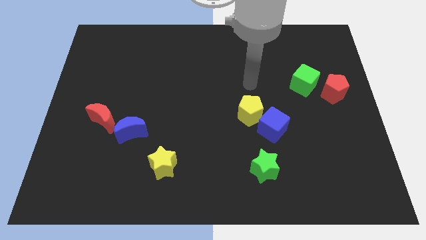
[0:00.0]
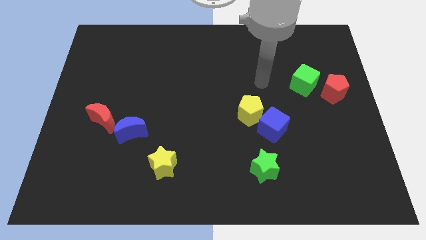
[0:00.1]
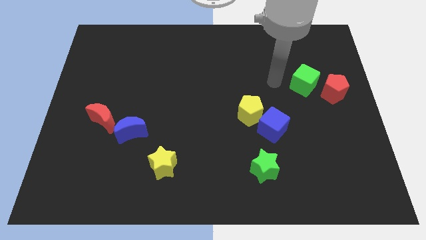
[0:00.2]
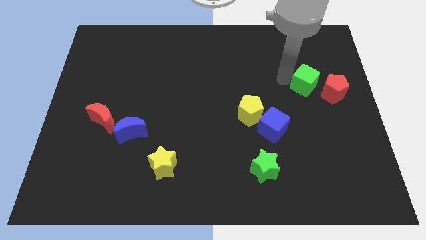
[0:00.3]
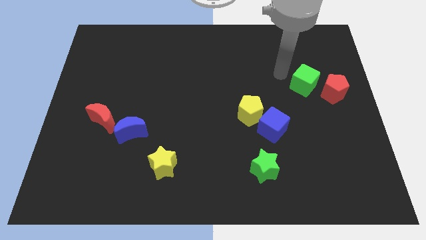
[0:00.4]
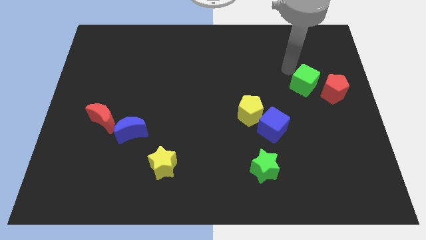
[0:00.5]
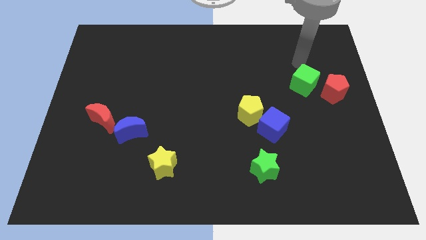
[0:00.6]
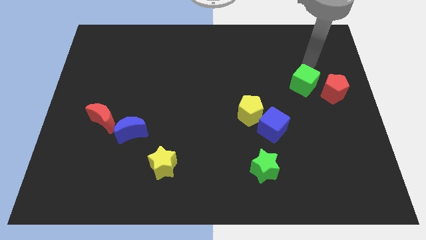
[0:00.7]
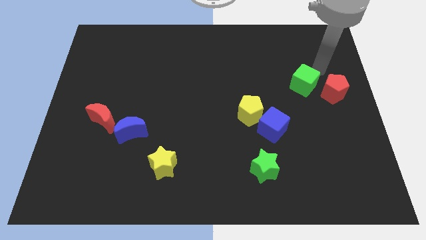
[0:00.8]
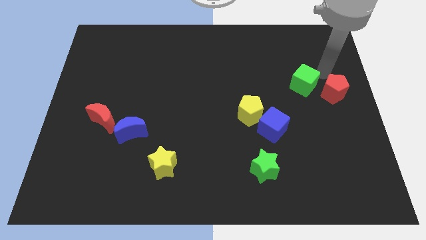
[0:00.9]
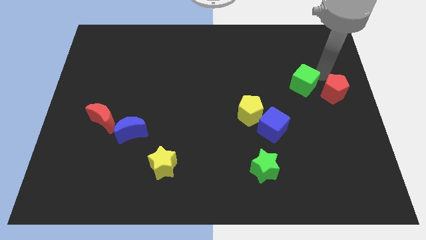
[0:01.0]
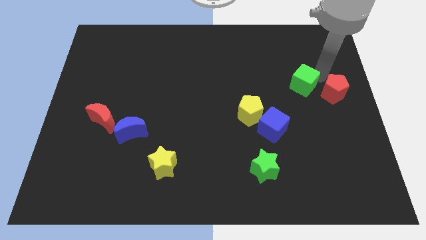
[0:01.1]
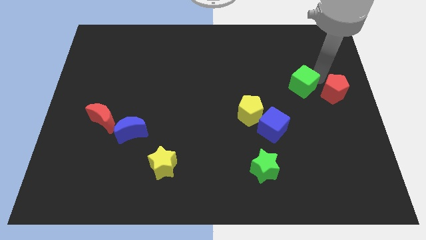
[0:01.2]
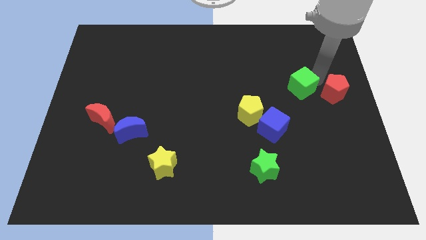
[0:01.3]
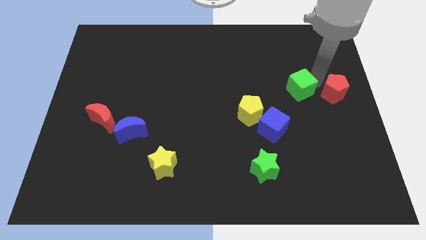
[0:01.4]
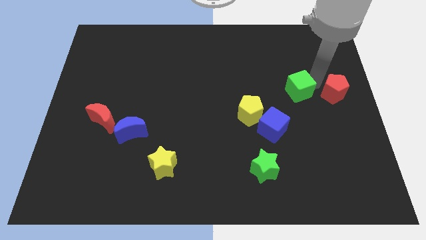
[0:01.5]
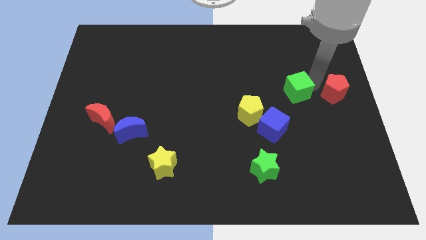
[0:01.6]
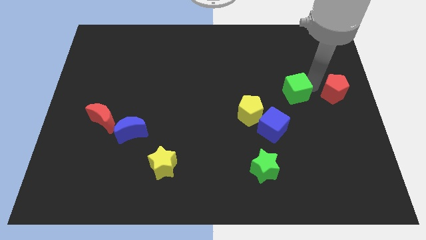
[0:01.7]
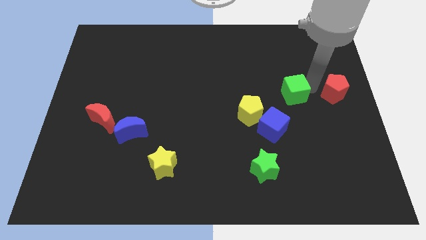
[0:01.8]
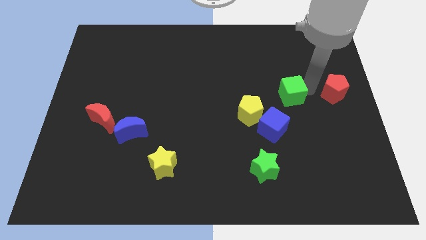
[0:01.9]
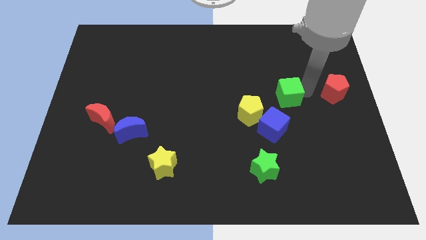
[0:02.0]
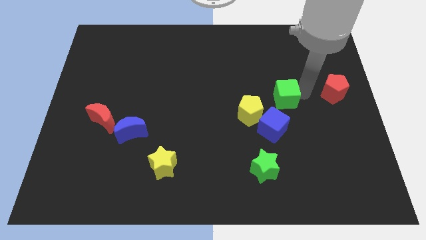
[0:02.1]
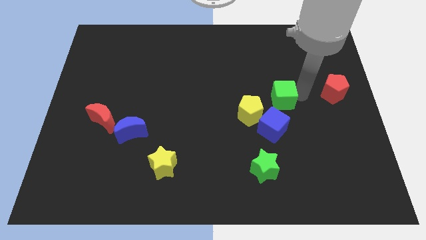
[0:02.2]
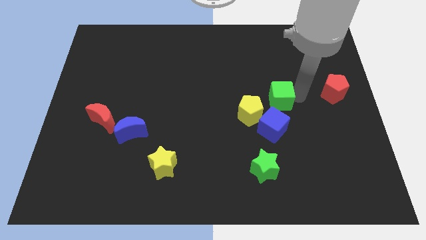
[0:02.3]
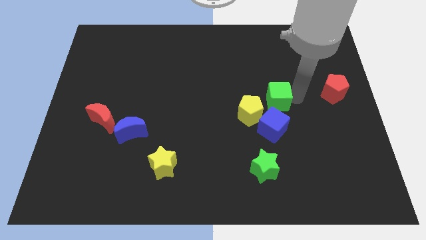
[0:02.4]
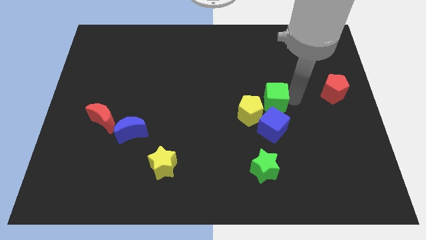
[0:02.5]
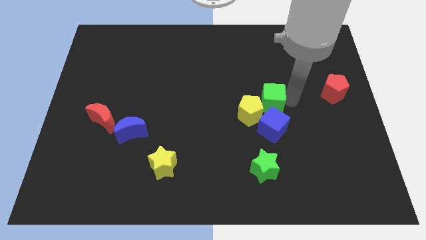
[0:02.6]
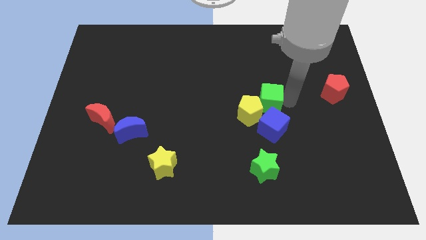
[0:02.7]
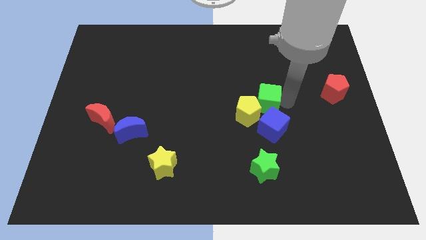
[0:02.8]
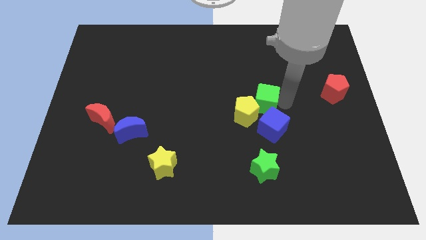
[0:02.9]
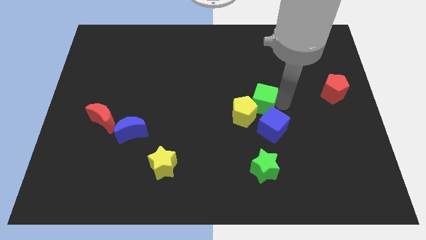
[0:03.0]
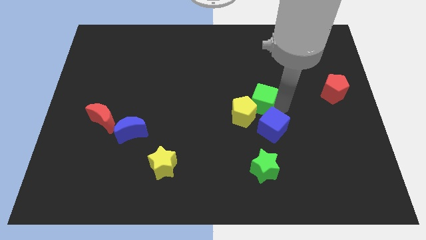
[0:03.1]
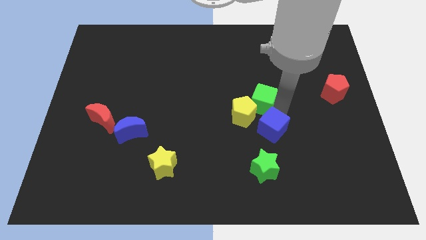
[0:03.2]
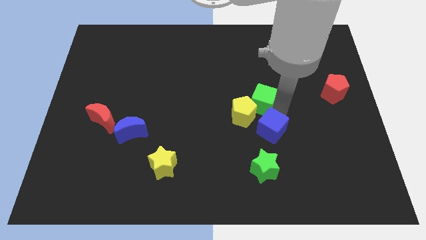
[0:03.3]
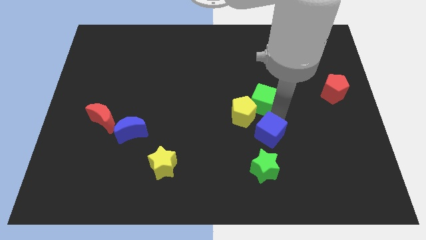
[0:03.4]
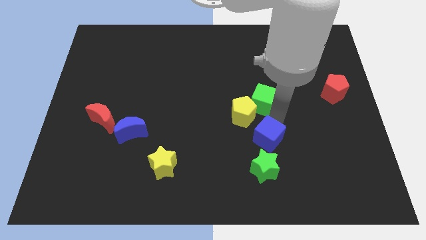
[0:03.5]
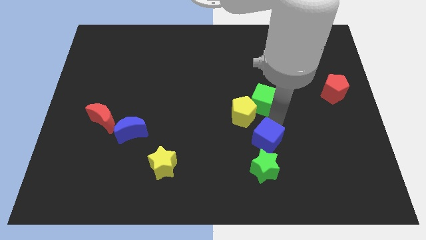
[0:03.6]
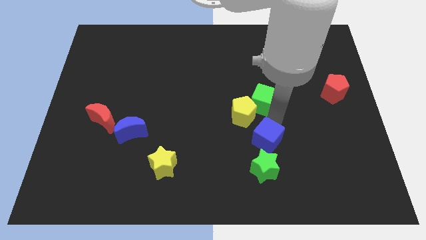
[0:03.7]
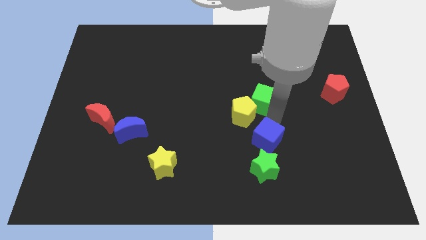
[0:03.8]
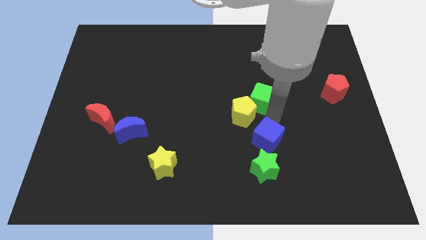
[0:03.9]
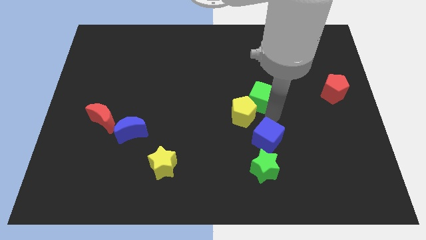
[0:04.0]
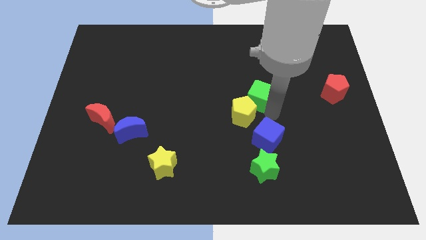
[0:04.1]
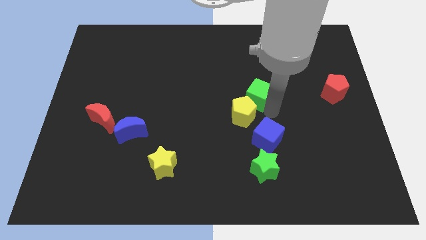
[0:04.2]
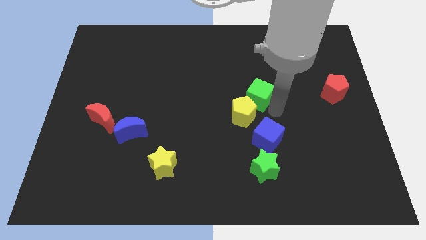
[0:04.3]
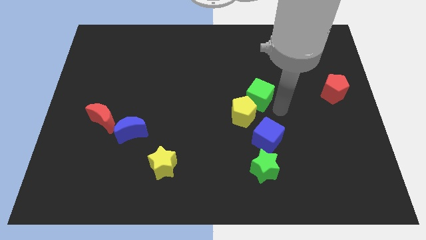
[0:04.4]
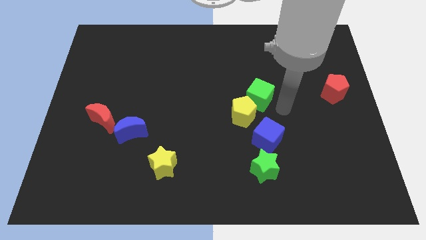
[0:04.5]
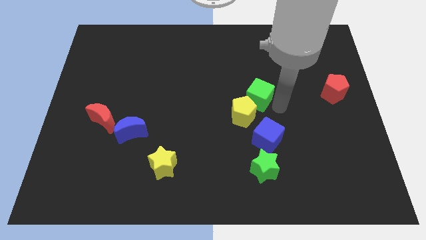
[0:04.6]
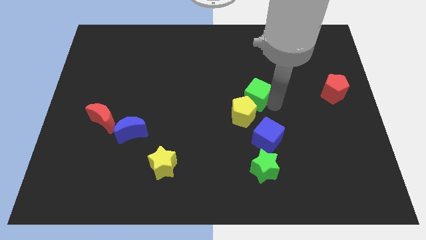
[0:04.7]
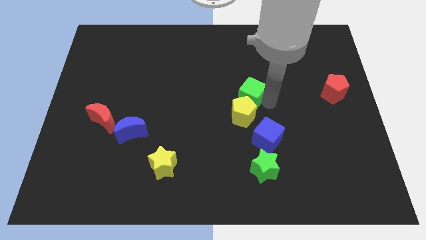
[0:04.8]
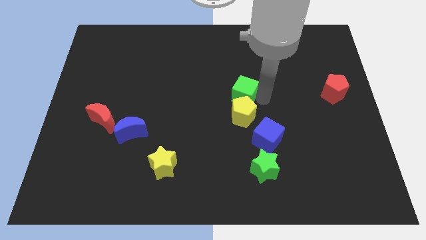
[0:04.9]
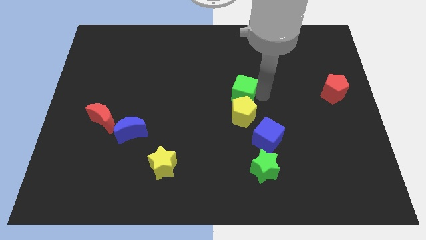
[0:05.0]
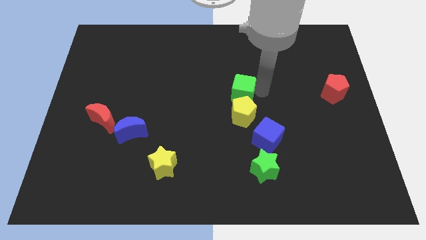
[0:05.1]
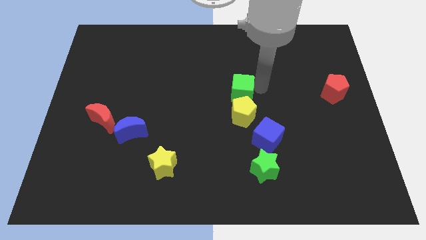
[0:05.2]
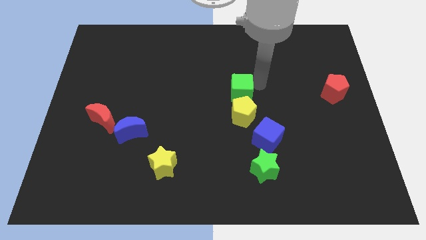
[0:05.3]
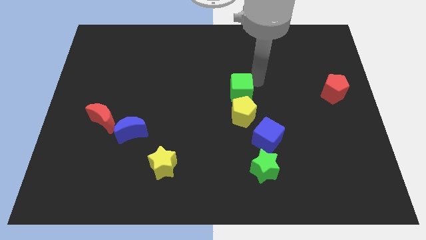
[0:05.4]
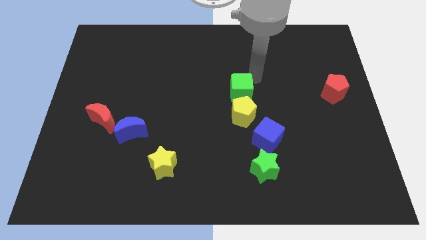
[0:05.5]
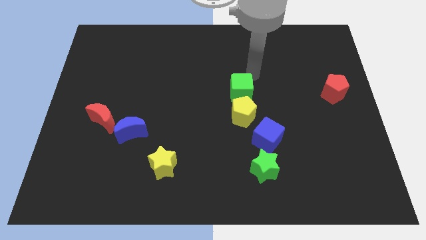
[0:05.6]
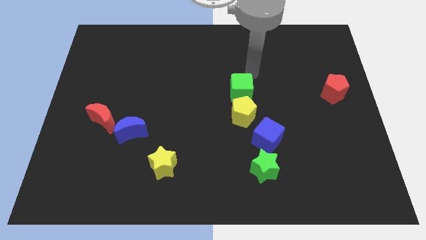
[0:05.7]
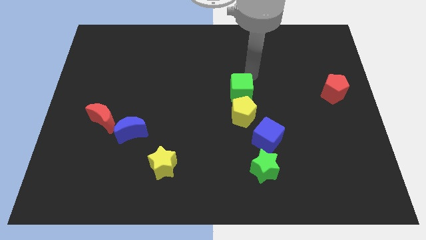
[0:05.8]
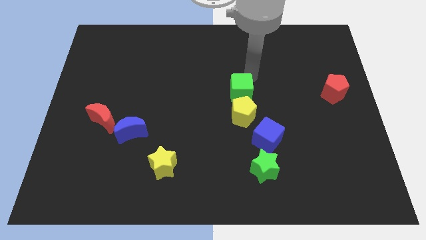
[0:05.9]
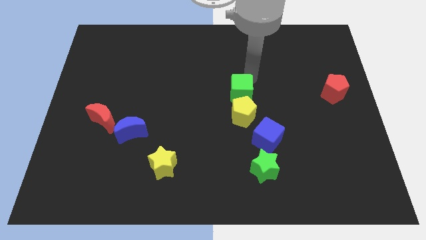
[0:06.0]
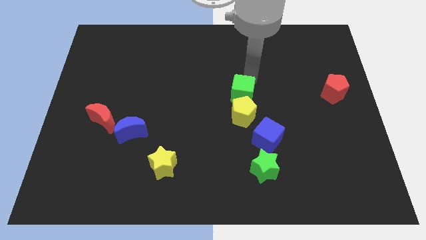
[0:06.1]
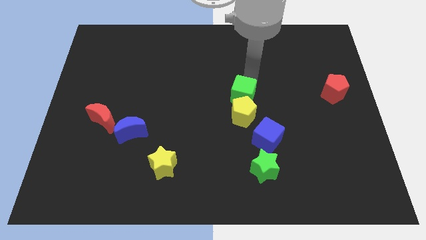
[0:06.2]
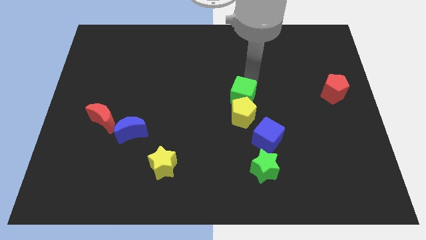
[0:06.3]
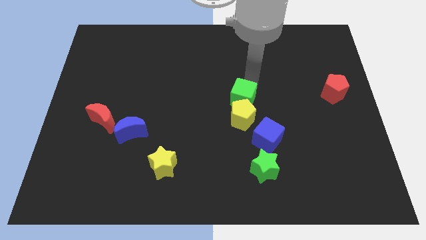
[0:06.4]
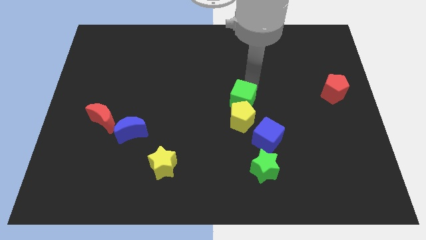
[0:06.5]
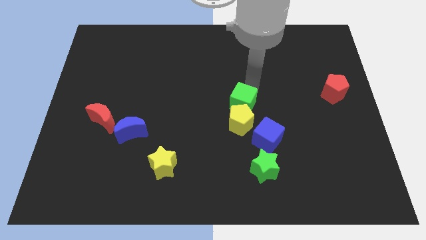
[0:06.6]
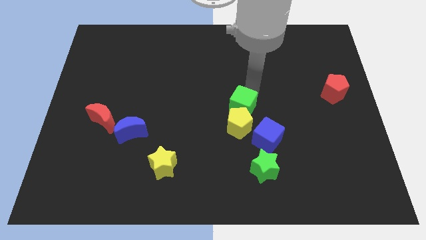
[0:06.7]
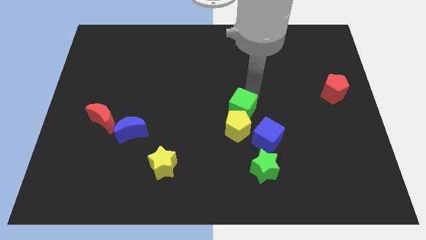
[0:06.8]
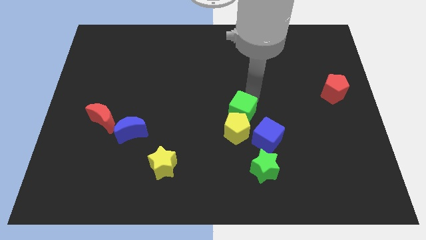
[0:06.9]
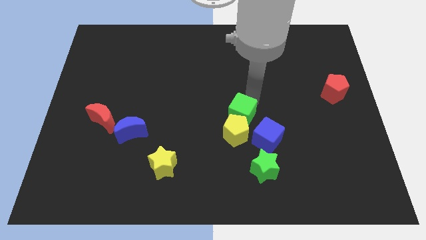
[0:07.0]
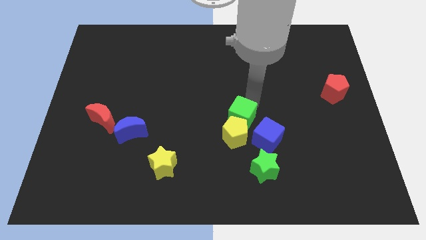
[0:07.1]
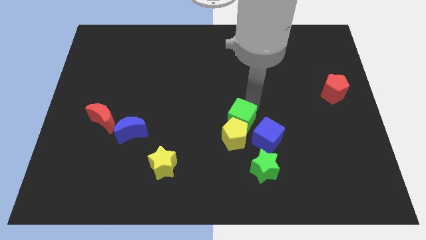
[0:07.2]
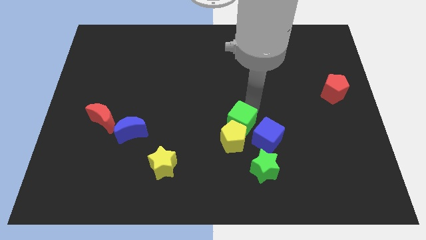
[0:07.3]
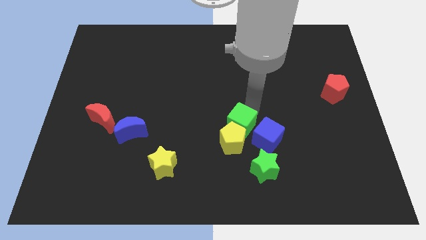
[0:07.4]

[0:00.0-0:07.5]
move the green cube down and left diagonally

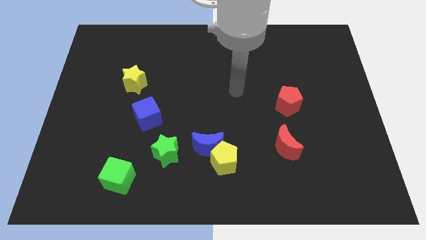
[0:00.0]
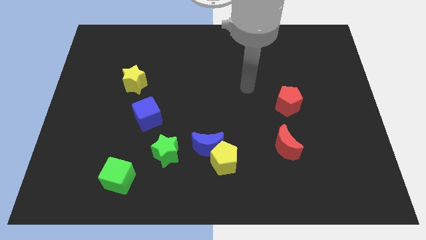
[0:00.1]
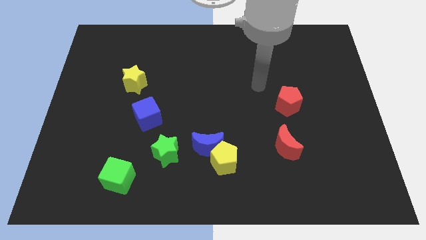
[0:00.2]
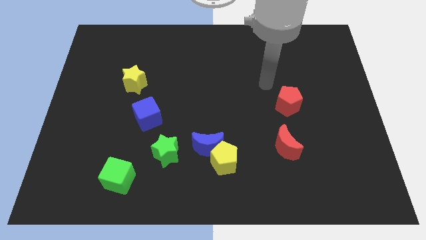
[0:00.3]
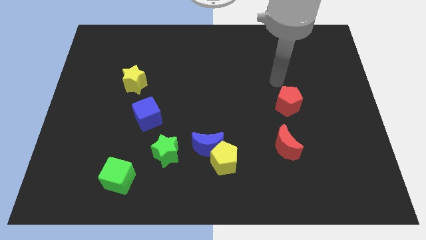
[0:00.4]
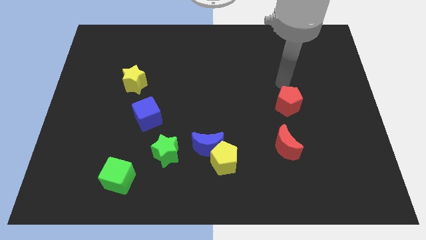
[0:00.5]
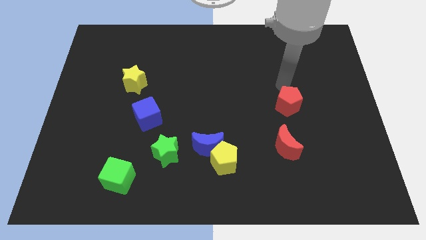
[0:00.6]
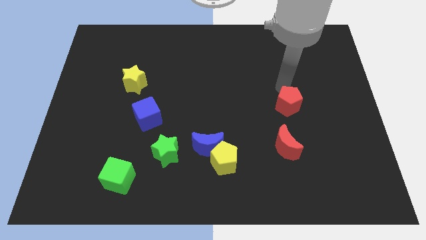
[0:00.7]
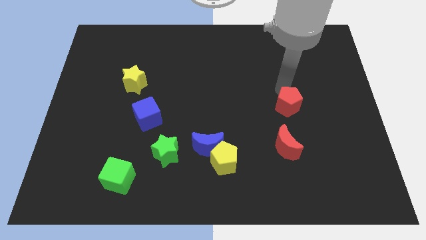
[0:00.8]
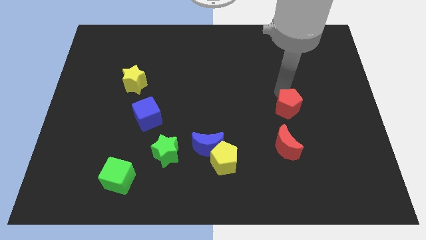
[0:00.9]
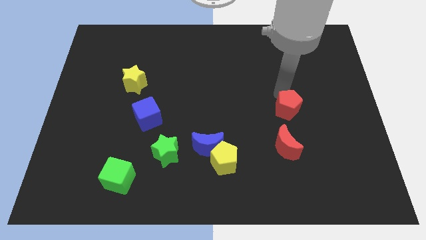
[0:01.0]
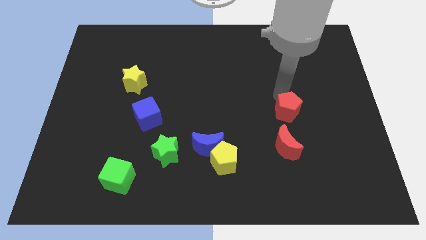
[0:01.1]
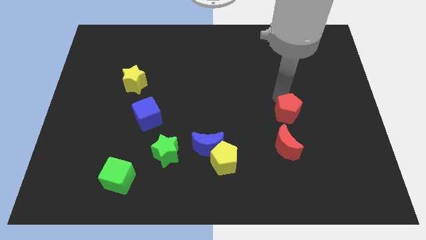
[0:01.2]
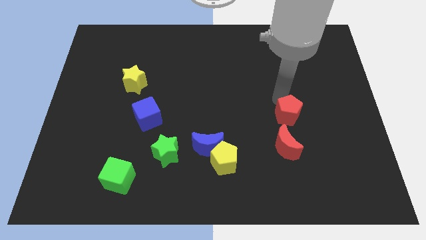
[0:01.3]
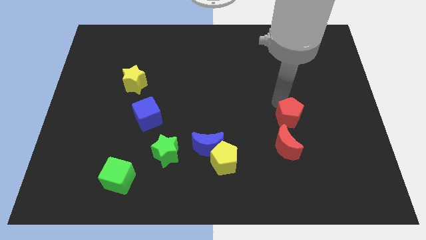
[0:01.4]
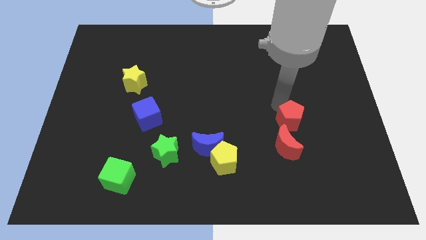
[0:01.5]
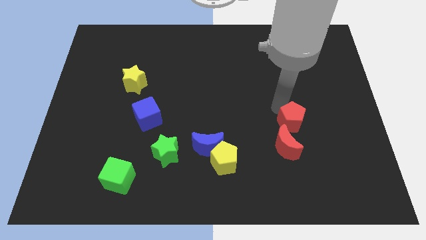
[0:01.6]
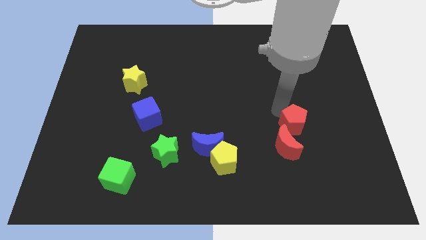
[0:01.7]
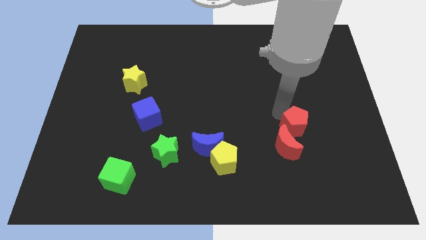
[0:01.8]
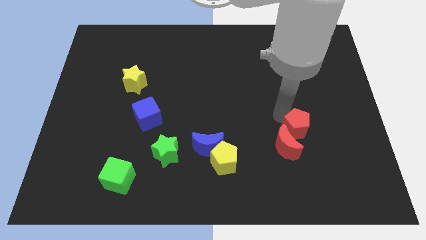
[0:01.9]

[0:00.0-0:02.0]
slide the red pentagon a bit down
